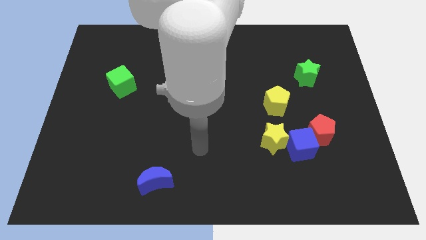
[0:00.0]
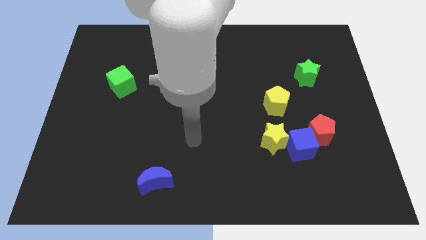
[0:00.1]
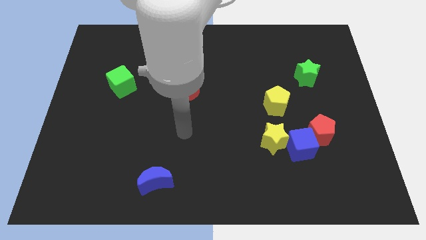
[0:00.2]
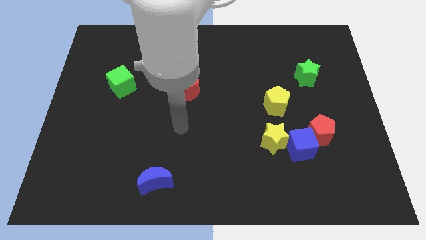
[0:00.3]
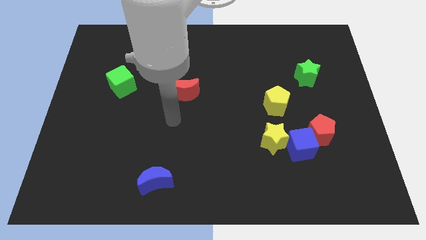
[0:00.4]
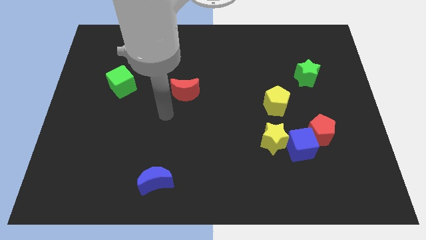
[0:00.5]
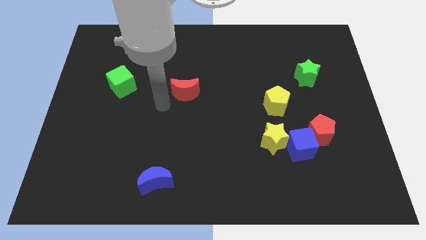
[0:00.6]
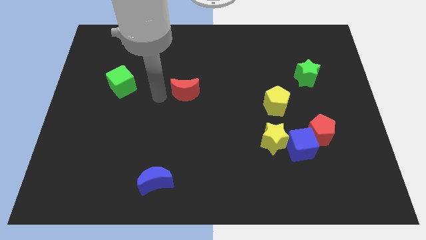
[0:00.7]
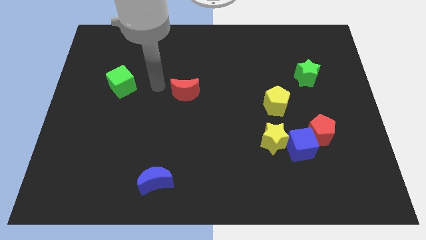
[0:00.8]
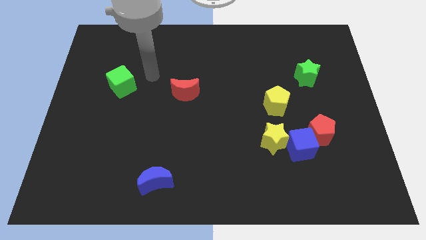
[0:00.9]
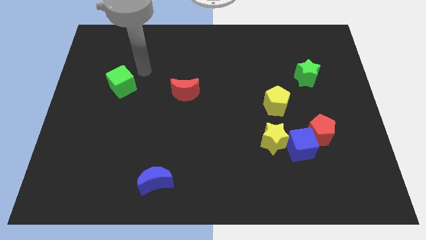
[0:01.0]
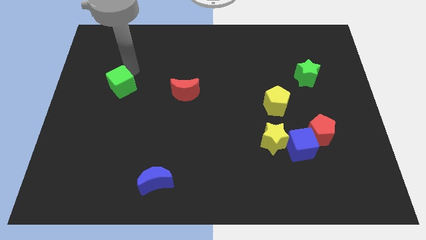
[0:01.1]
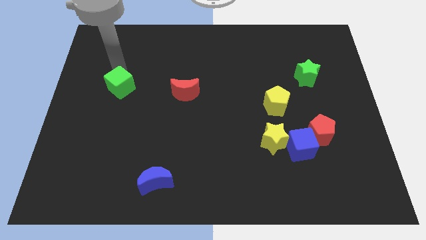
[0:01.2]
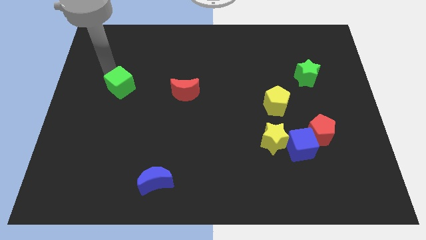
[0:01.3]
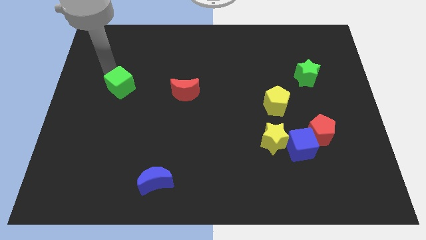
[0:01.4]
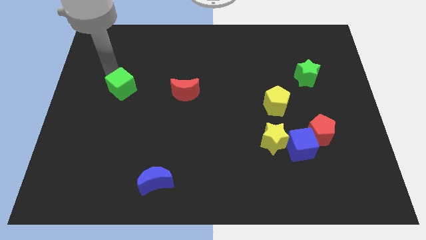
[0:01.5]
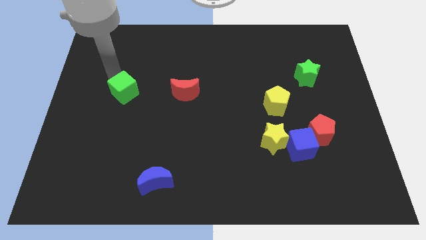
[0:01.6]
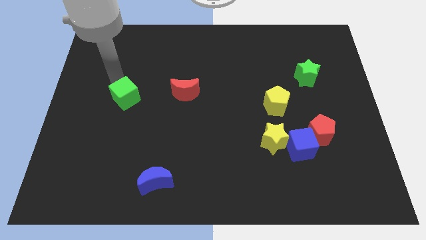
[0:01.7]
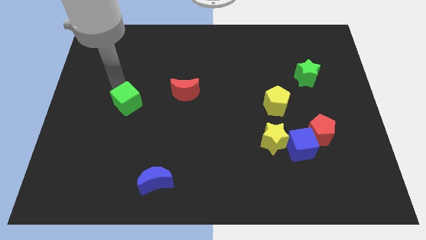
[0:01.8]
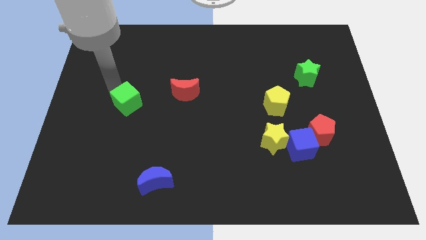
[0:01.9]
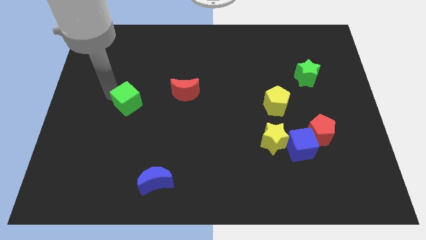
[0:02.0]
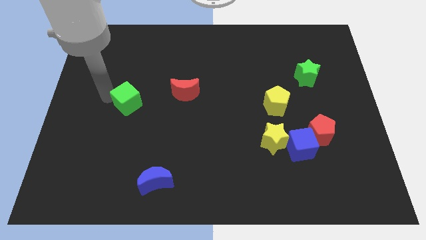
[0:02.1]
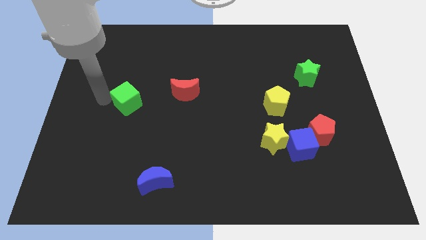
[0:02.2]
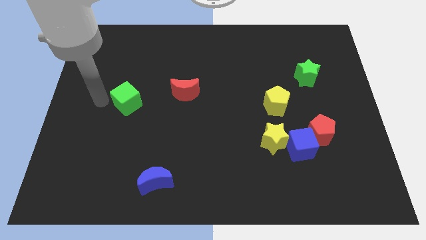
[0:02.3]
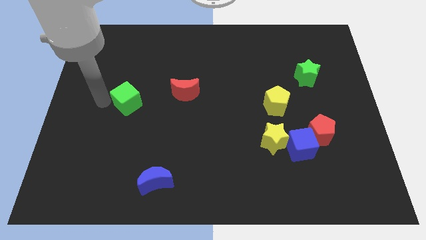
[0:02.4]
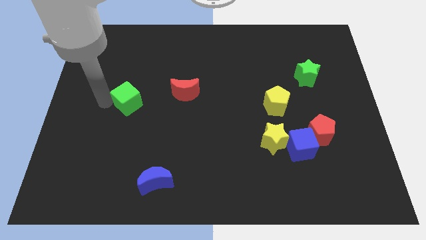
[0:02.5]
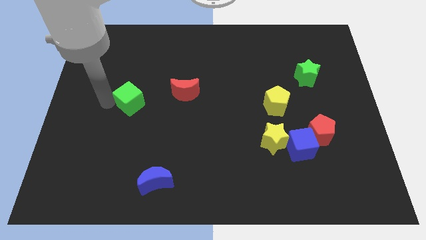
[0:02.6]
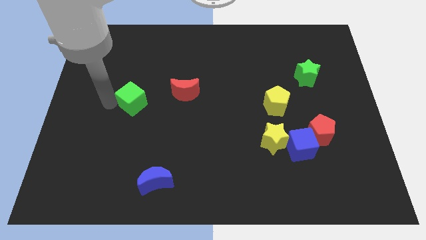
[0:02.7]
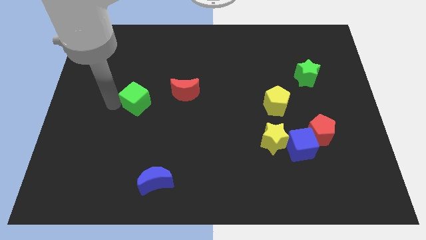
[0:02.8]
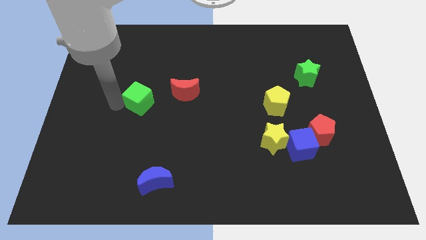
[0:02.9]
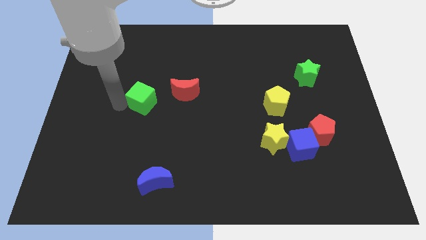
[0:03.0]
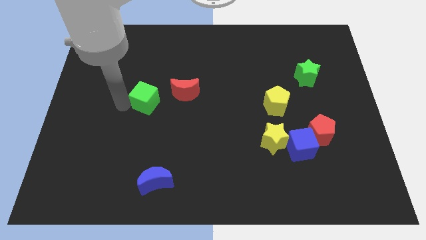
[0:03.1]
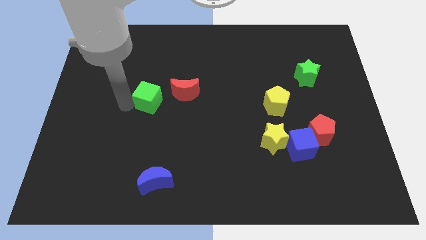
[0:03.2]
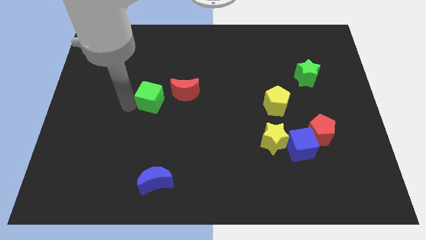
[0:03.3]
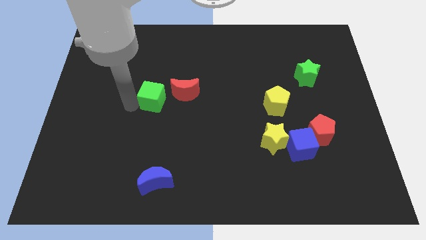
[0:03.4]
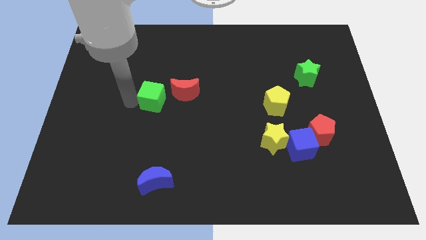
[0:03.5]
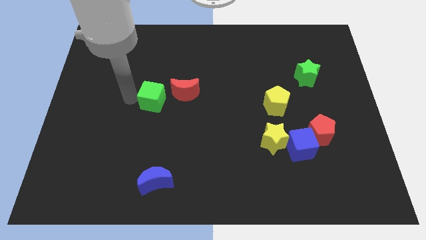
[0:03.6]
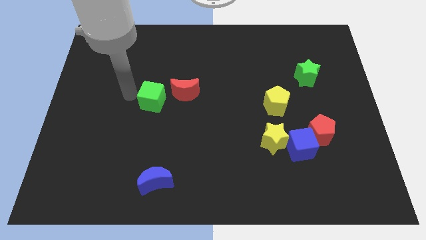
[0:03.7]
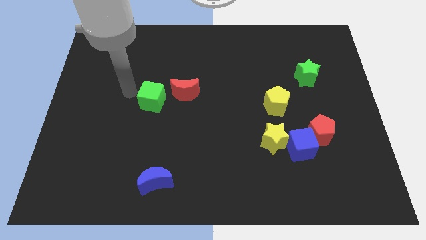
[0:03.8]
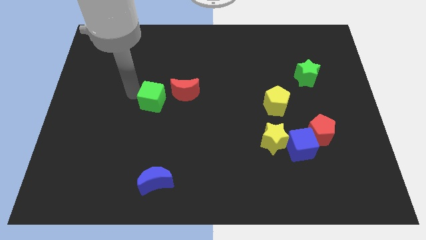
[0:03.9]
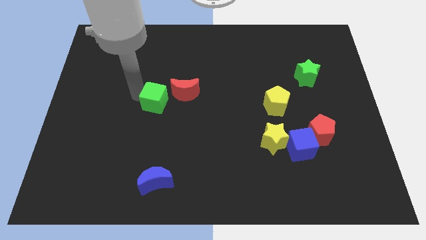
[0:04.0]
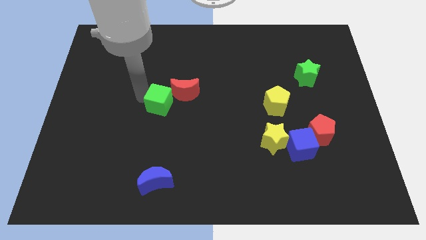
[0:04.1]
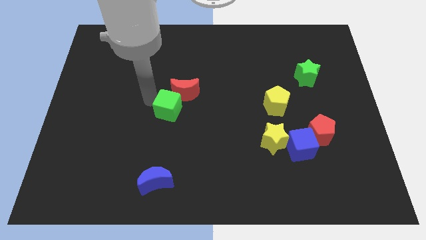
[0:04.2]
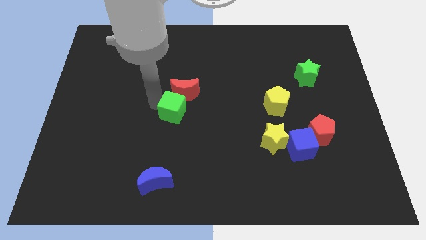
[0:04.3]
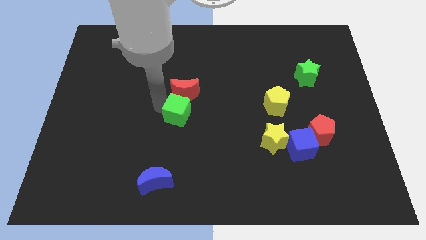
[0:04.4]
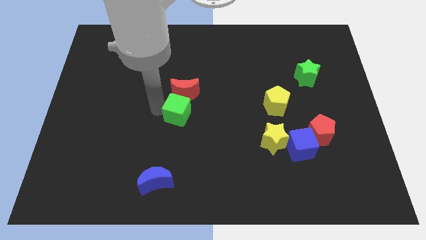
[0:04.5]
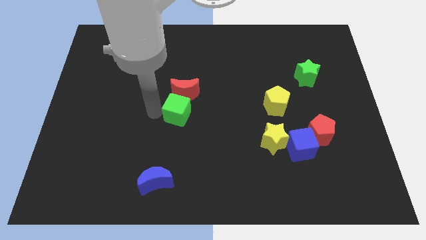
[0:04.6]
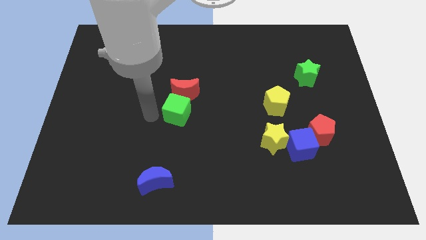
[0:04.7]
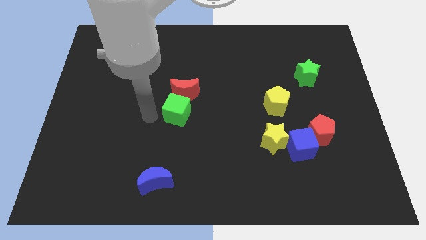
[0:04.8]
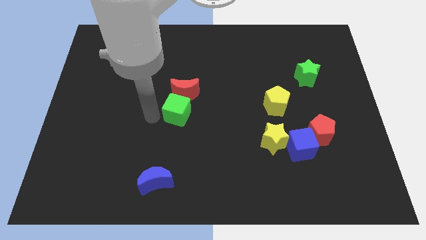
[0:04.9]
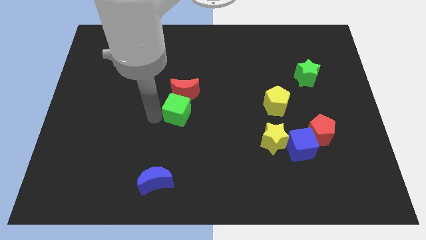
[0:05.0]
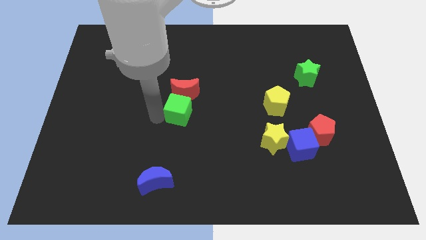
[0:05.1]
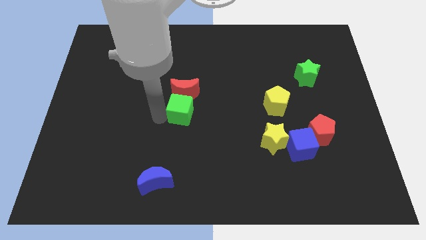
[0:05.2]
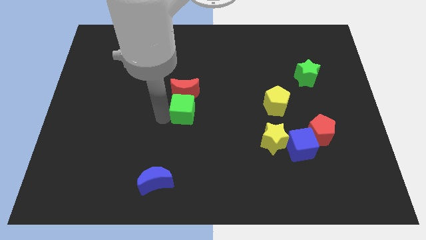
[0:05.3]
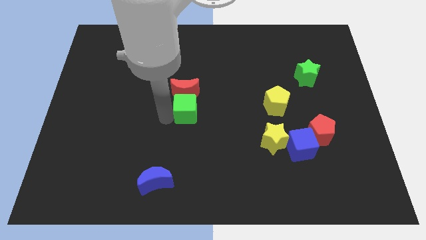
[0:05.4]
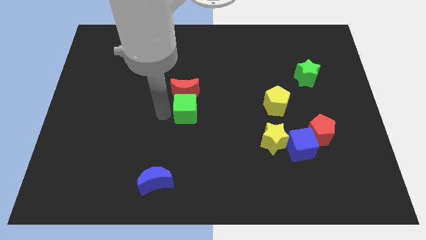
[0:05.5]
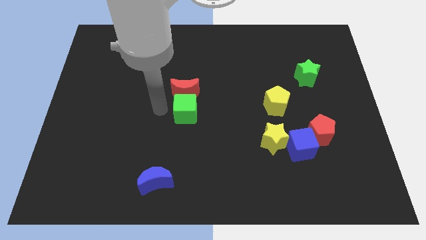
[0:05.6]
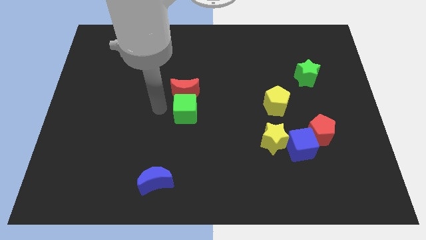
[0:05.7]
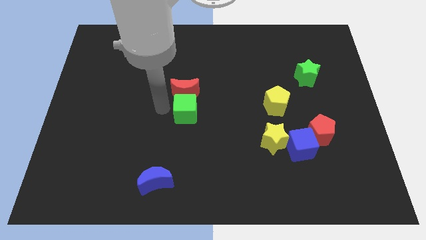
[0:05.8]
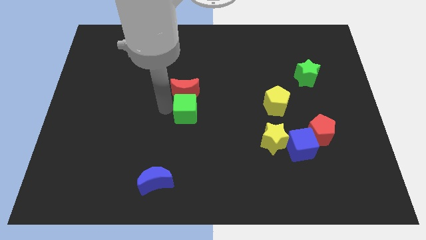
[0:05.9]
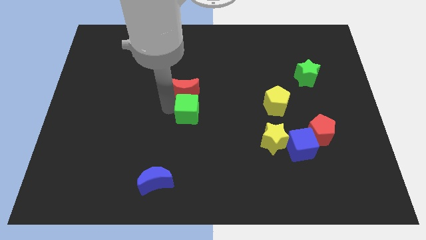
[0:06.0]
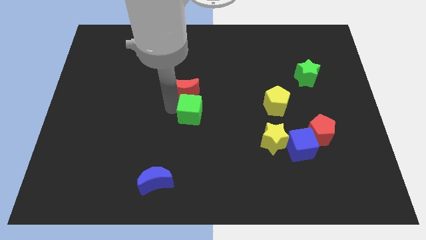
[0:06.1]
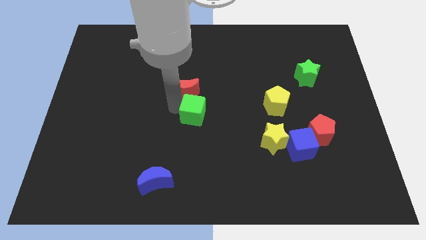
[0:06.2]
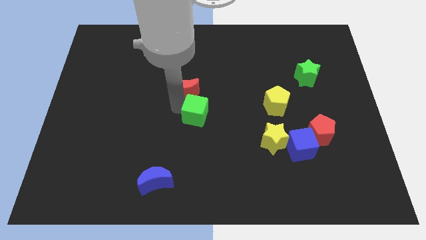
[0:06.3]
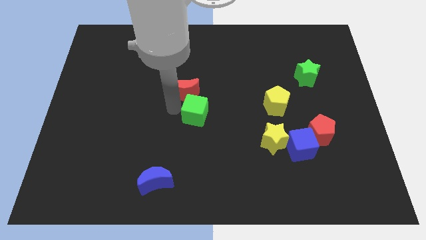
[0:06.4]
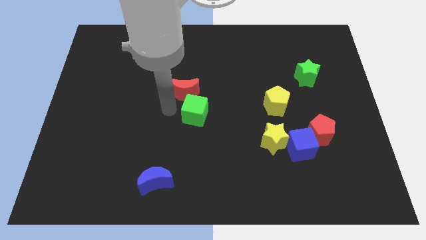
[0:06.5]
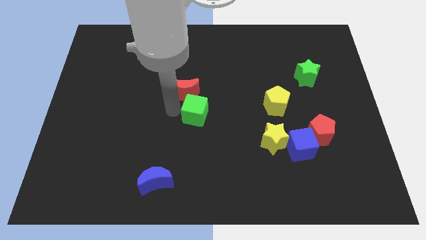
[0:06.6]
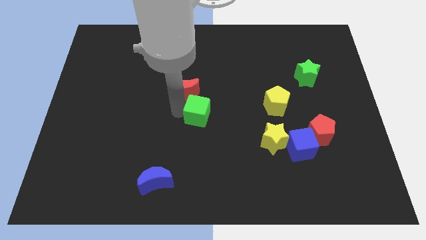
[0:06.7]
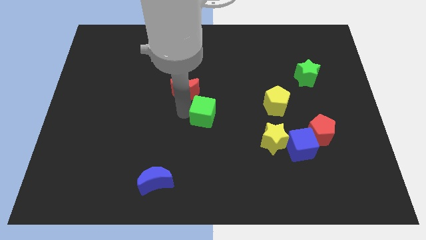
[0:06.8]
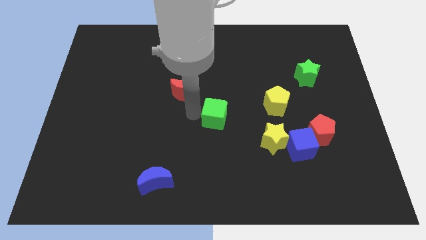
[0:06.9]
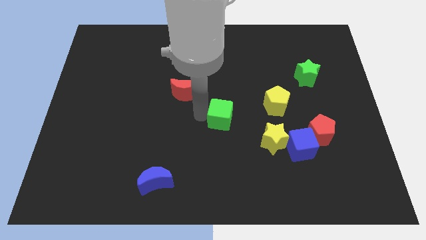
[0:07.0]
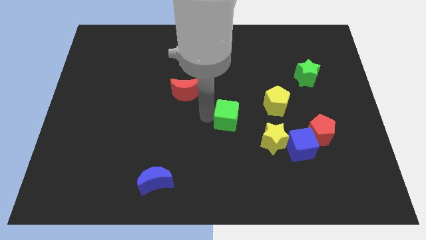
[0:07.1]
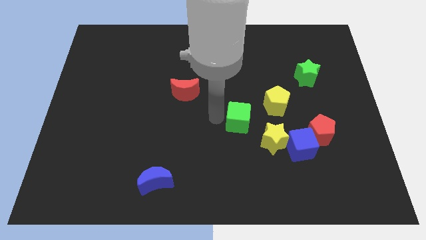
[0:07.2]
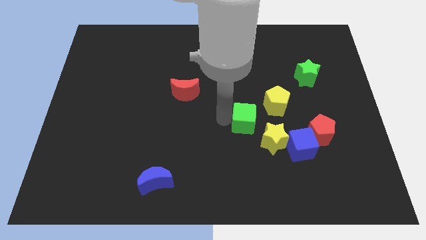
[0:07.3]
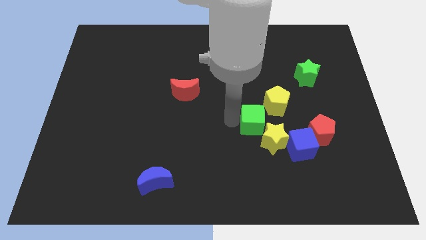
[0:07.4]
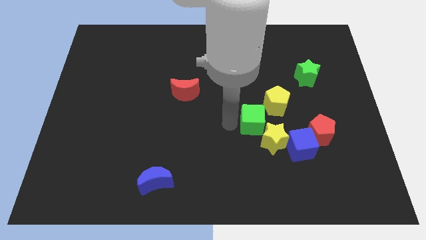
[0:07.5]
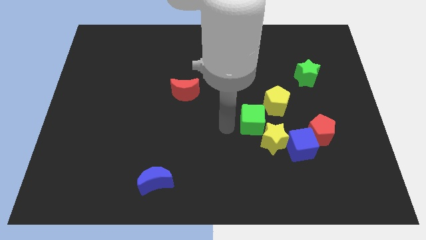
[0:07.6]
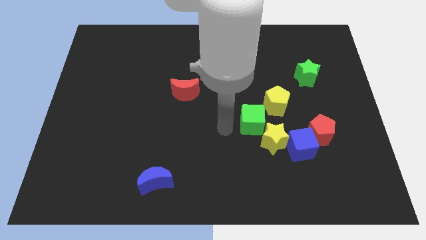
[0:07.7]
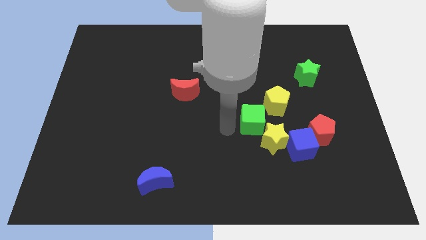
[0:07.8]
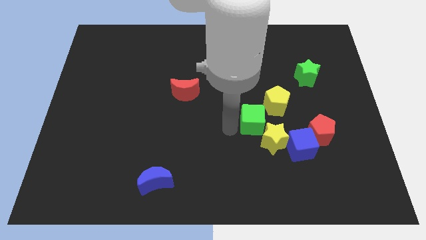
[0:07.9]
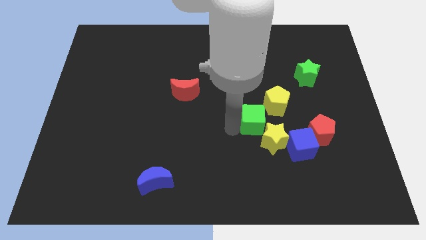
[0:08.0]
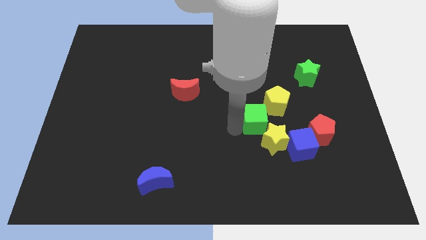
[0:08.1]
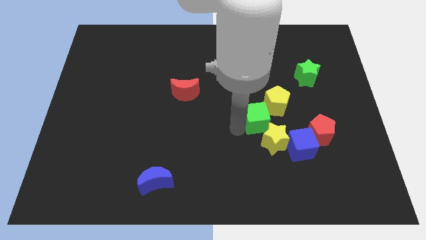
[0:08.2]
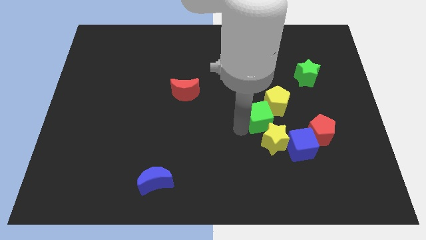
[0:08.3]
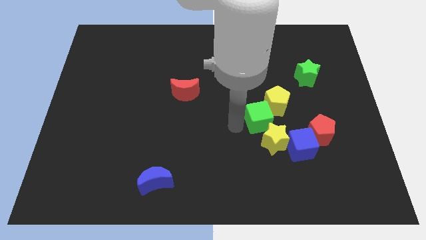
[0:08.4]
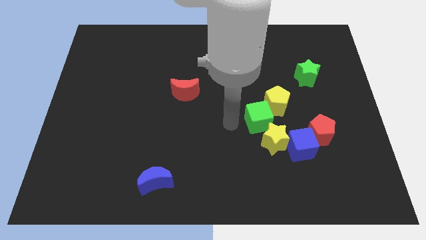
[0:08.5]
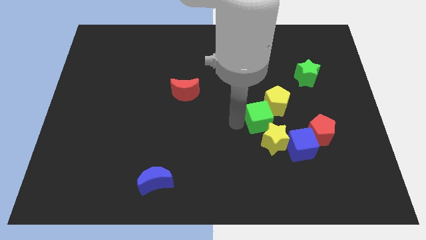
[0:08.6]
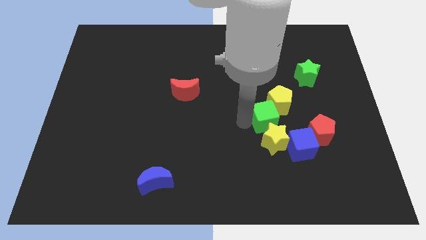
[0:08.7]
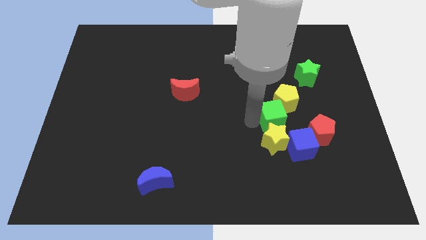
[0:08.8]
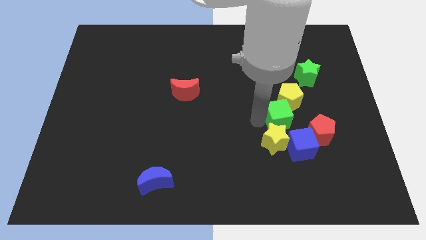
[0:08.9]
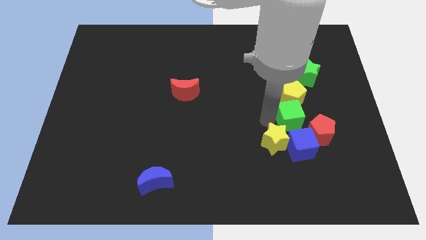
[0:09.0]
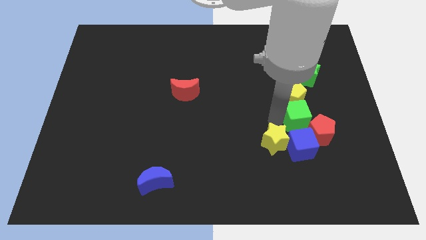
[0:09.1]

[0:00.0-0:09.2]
slide the green cube to the bottom side of the green star
